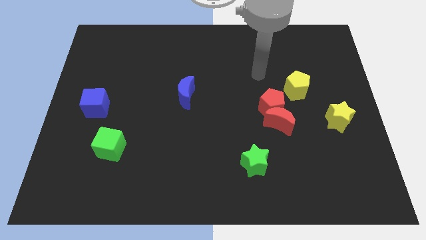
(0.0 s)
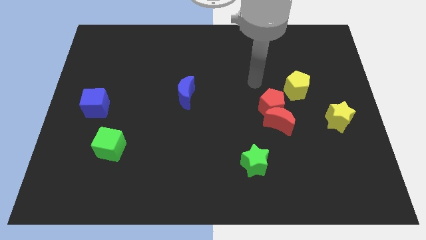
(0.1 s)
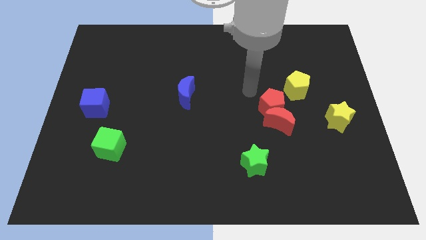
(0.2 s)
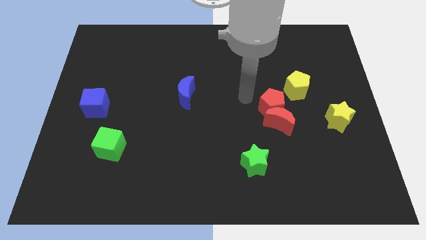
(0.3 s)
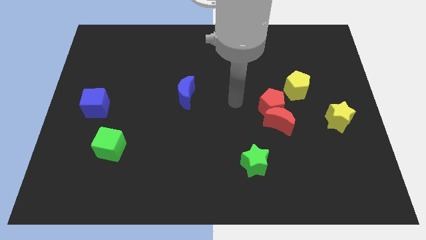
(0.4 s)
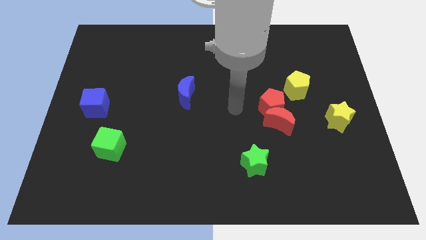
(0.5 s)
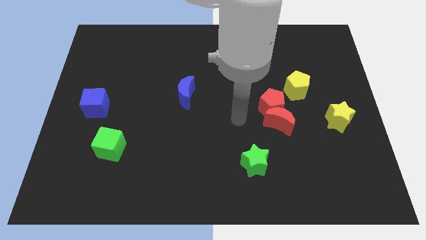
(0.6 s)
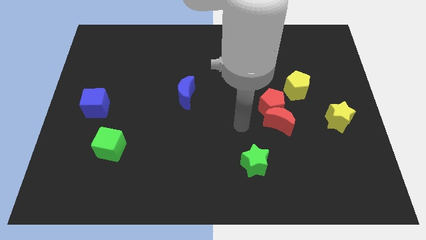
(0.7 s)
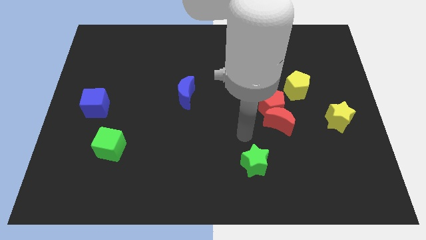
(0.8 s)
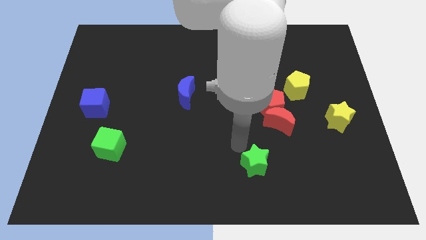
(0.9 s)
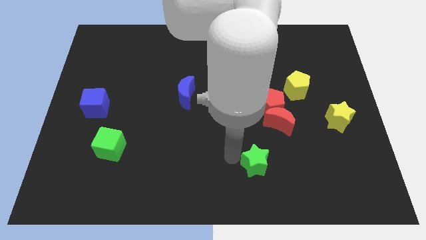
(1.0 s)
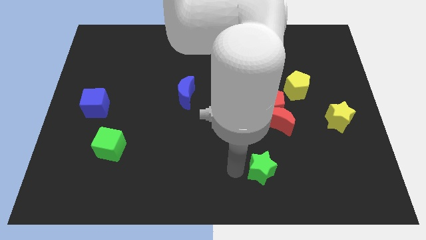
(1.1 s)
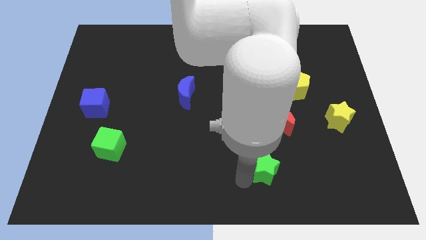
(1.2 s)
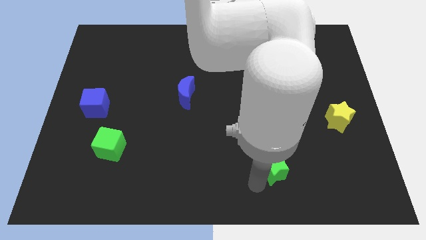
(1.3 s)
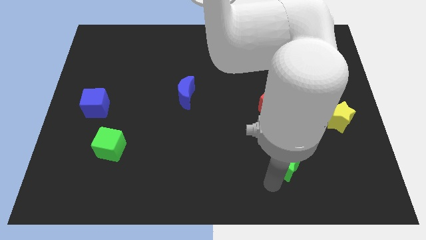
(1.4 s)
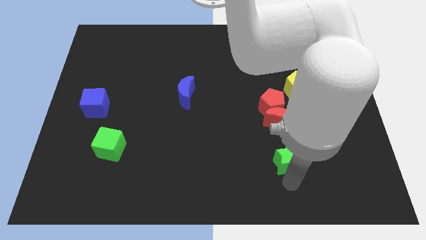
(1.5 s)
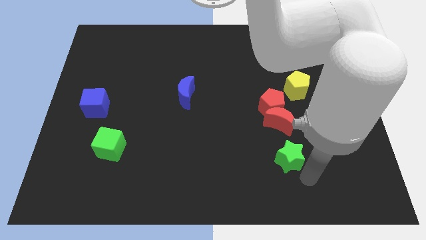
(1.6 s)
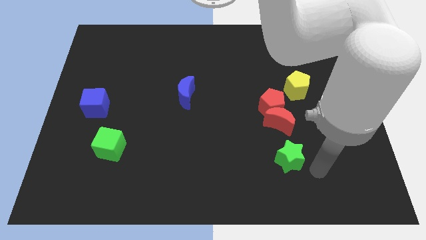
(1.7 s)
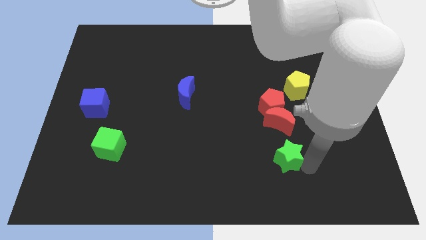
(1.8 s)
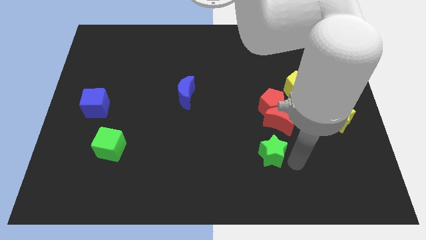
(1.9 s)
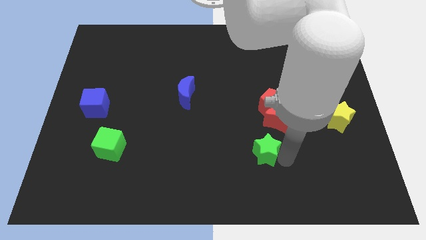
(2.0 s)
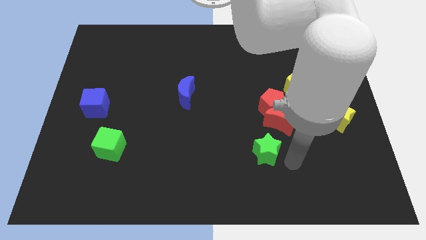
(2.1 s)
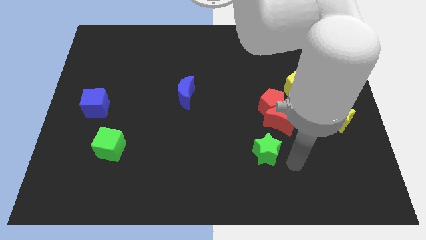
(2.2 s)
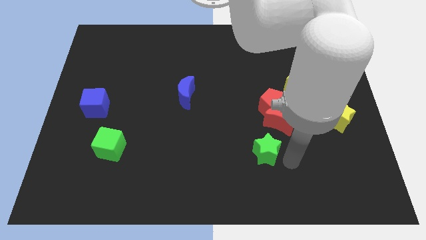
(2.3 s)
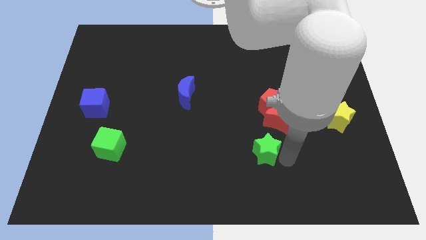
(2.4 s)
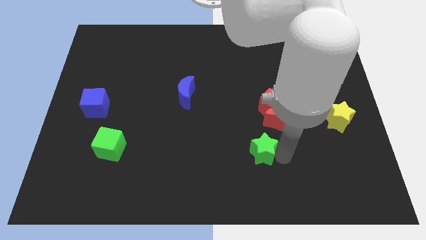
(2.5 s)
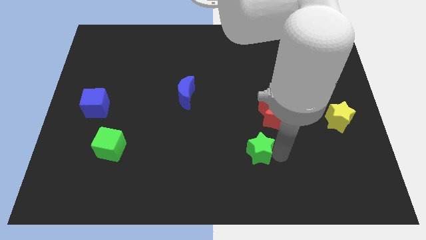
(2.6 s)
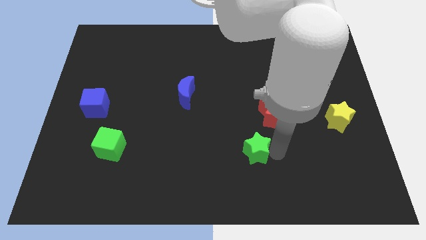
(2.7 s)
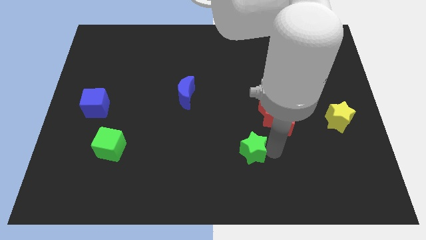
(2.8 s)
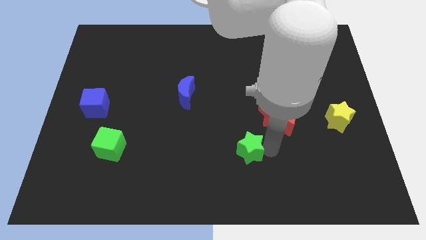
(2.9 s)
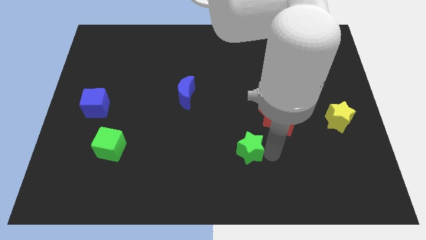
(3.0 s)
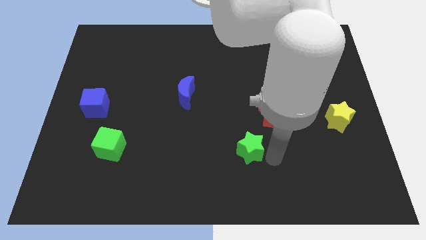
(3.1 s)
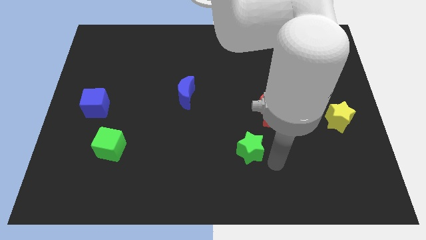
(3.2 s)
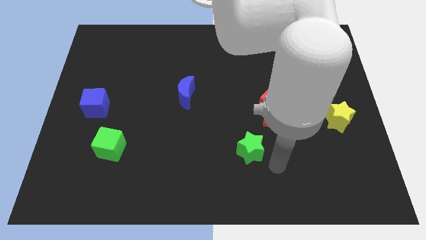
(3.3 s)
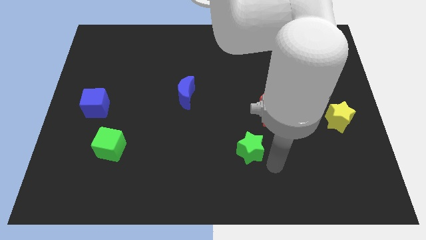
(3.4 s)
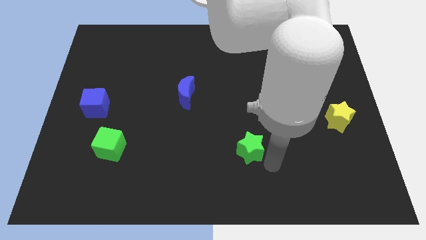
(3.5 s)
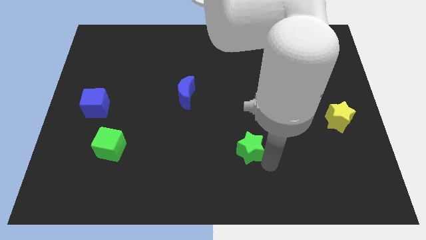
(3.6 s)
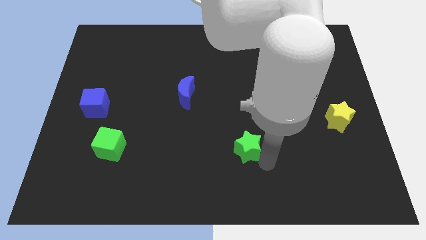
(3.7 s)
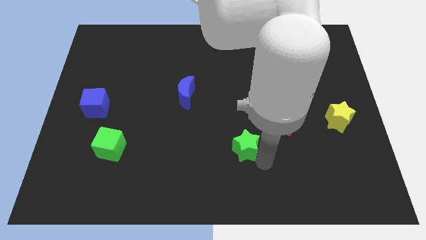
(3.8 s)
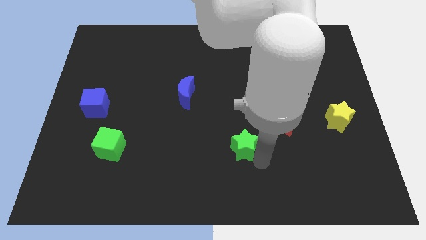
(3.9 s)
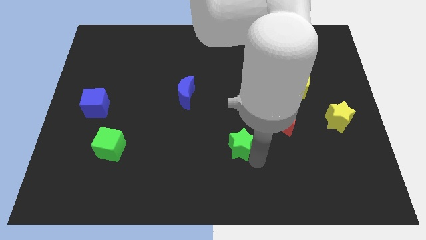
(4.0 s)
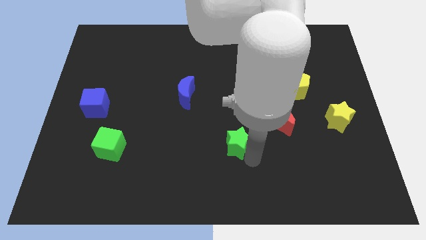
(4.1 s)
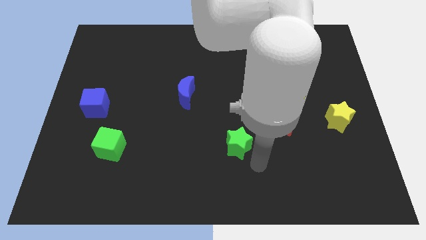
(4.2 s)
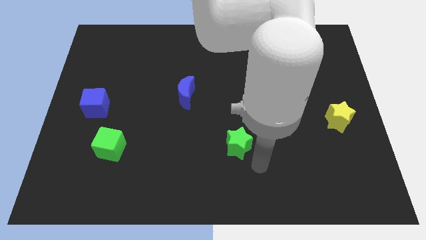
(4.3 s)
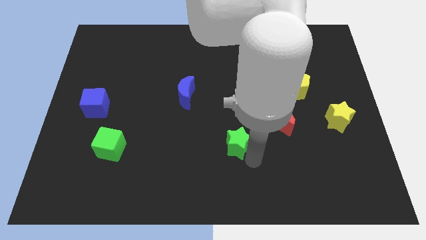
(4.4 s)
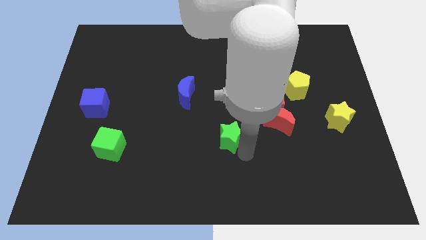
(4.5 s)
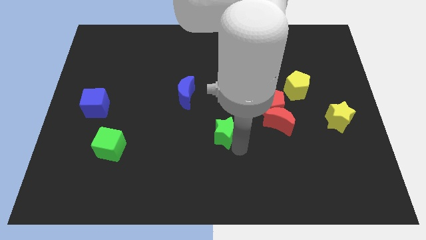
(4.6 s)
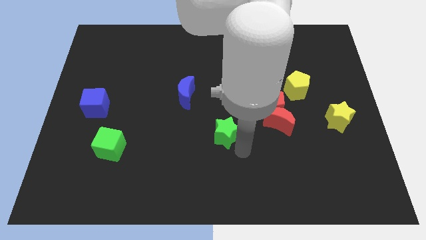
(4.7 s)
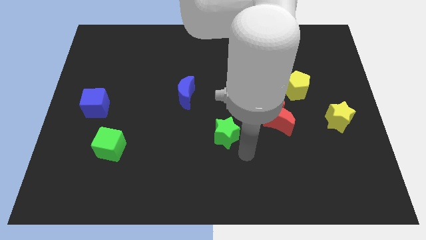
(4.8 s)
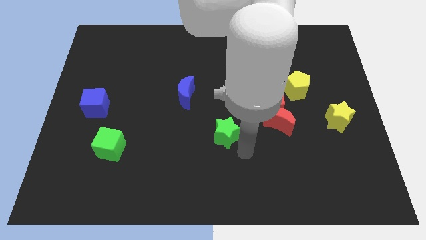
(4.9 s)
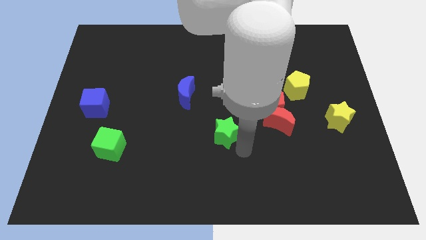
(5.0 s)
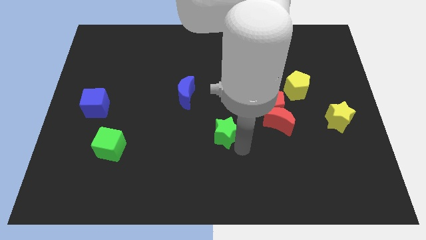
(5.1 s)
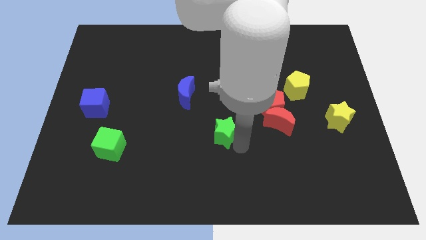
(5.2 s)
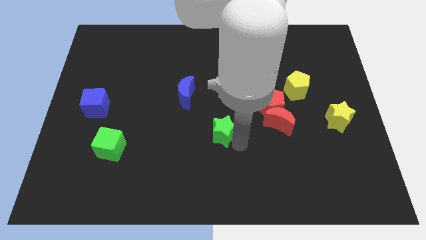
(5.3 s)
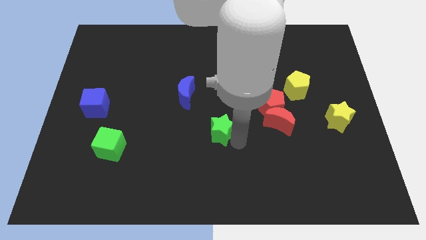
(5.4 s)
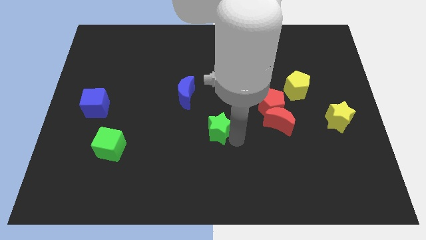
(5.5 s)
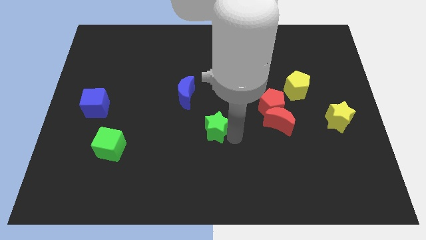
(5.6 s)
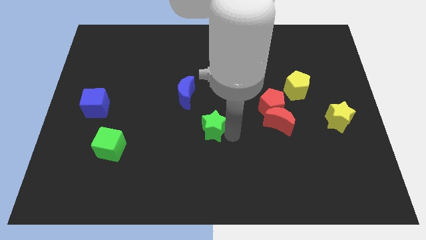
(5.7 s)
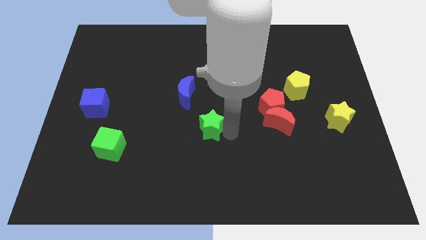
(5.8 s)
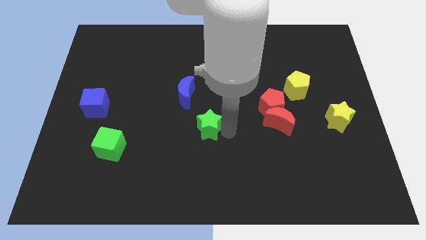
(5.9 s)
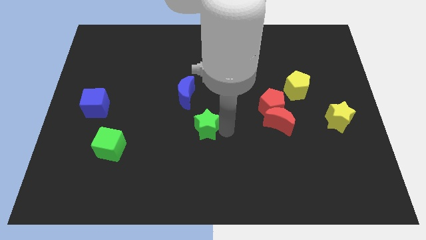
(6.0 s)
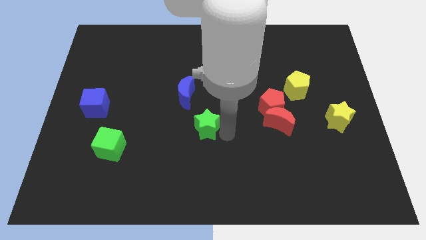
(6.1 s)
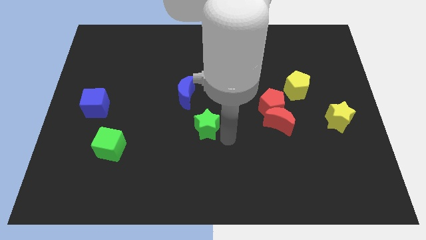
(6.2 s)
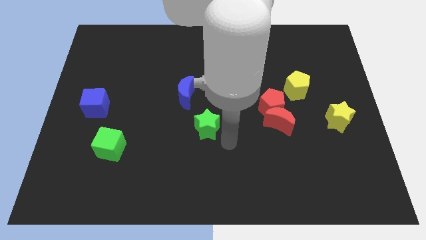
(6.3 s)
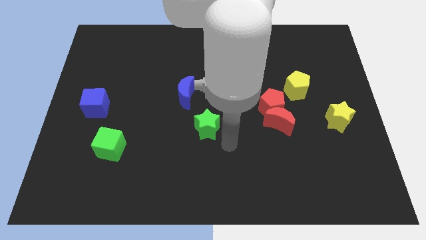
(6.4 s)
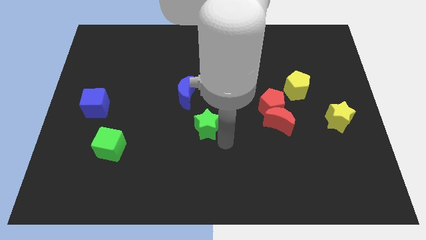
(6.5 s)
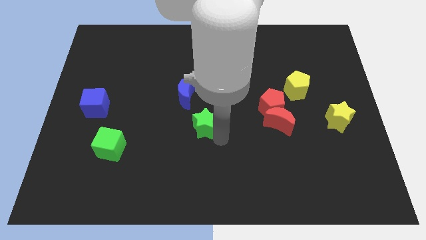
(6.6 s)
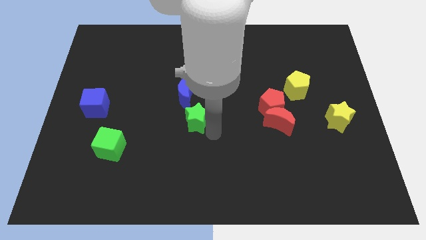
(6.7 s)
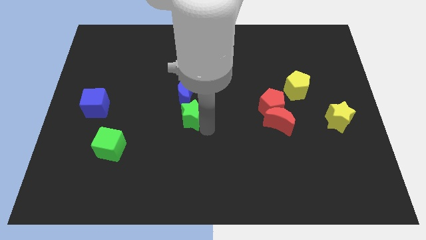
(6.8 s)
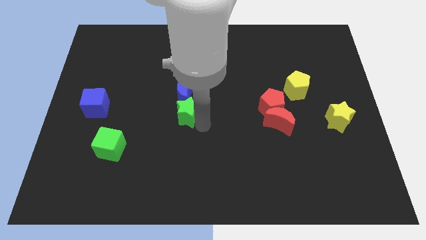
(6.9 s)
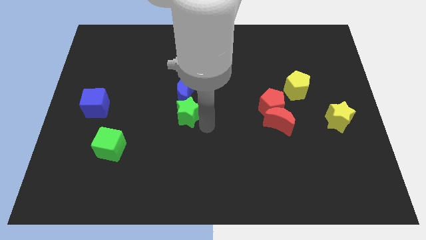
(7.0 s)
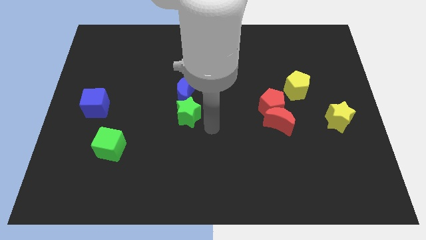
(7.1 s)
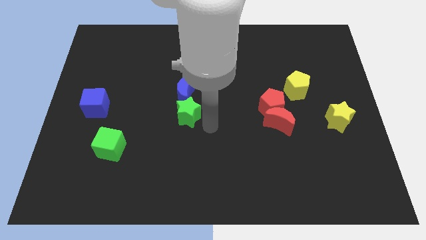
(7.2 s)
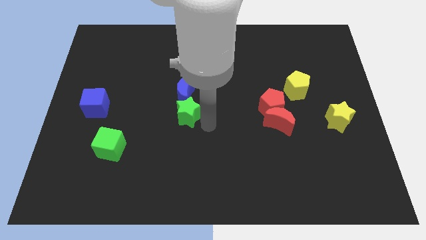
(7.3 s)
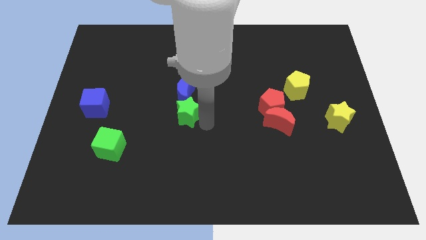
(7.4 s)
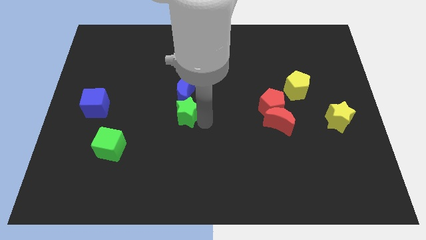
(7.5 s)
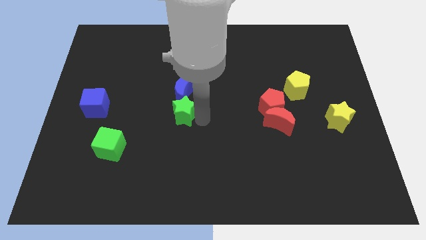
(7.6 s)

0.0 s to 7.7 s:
push the green star diagonally upwards and to the left

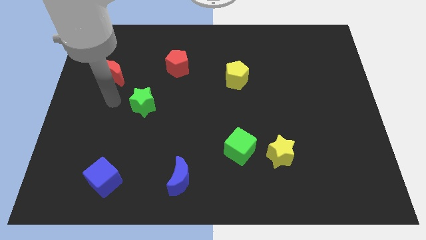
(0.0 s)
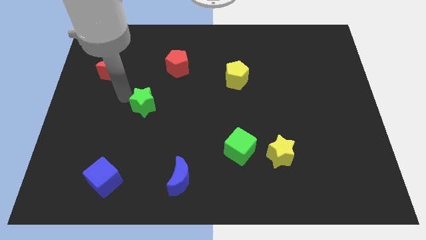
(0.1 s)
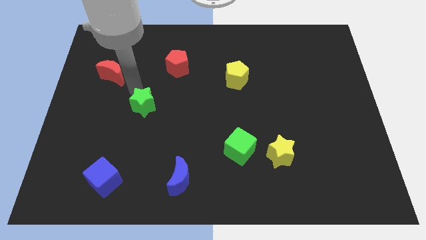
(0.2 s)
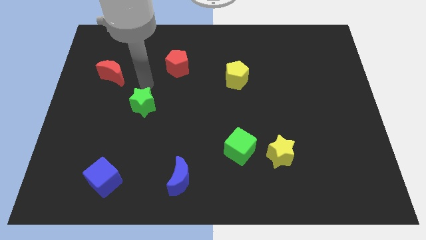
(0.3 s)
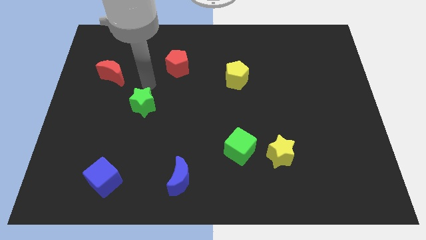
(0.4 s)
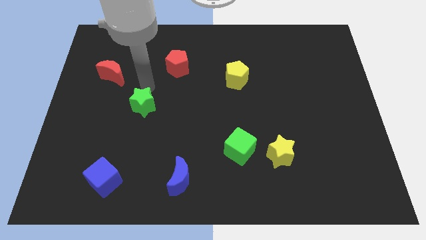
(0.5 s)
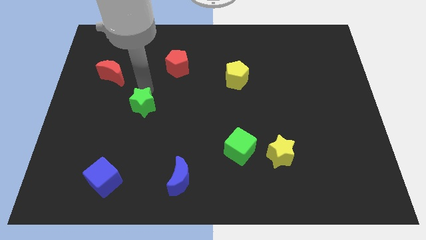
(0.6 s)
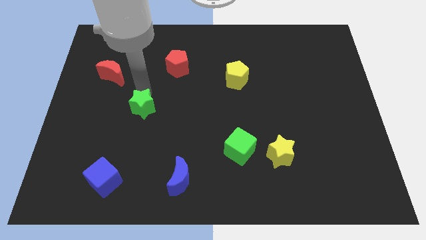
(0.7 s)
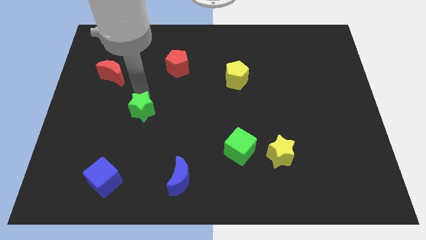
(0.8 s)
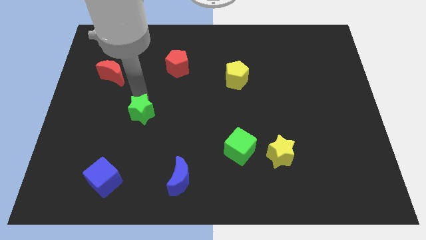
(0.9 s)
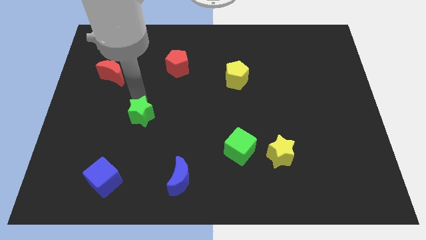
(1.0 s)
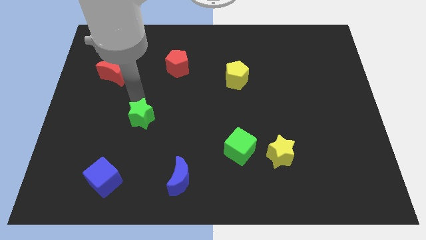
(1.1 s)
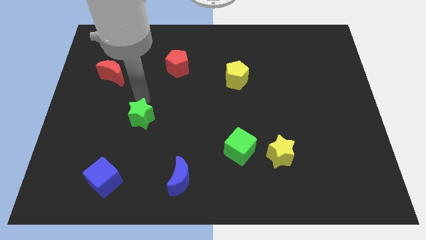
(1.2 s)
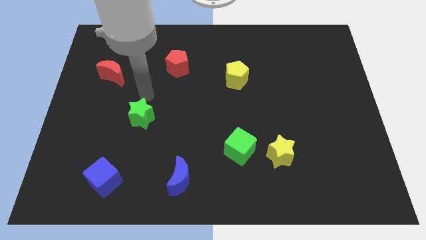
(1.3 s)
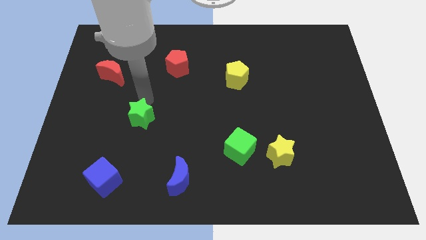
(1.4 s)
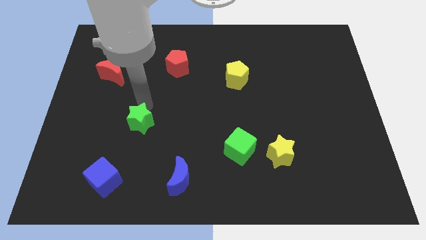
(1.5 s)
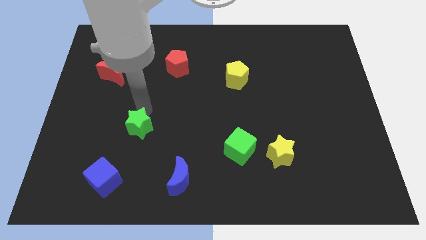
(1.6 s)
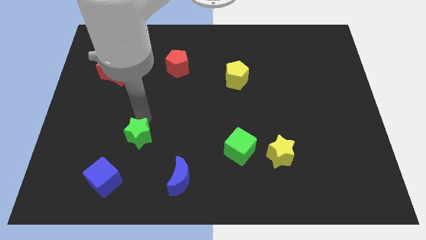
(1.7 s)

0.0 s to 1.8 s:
slightly push the green star down
